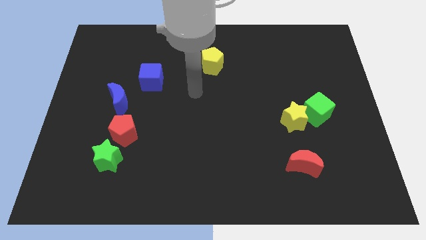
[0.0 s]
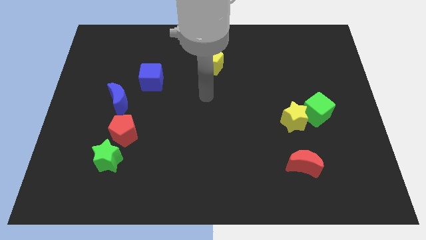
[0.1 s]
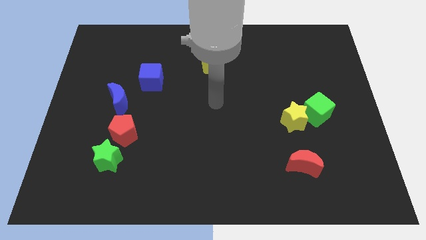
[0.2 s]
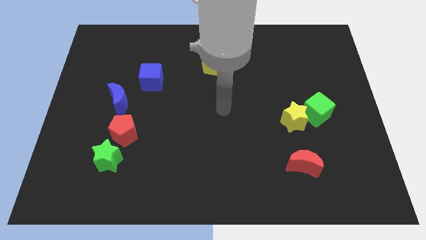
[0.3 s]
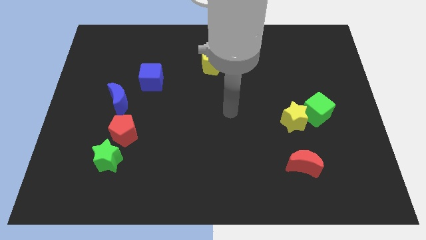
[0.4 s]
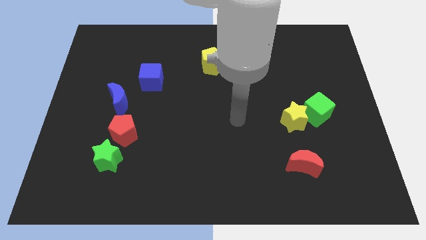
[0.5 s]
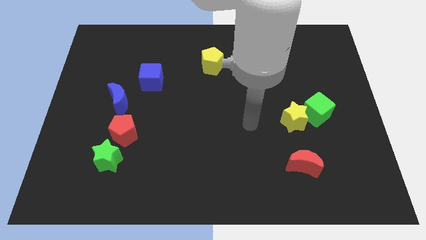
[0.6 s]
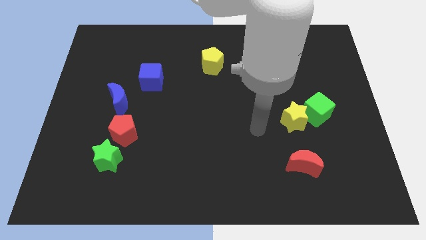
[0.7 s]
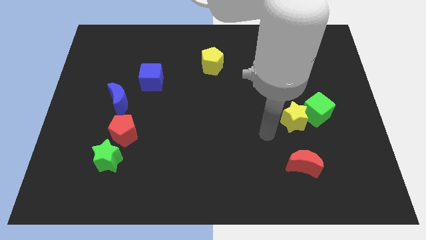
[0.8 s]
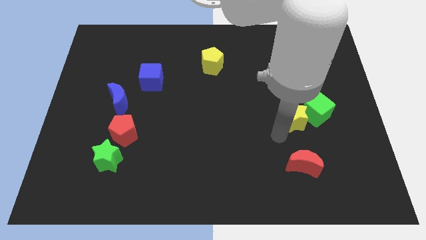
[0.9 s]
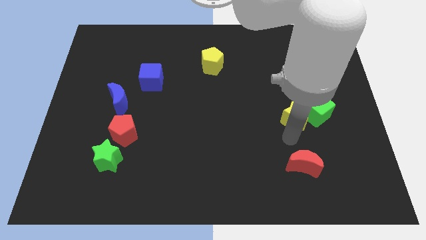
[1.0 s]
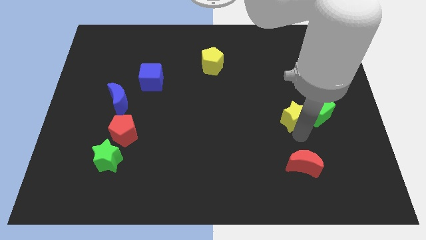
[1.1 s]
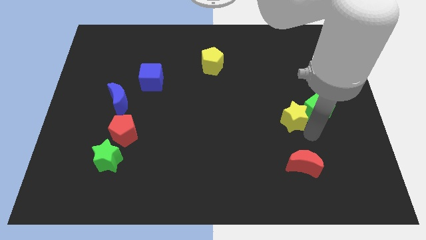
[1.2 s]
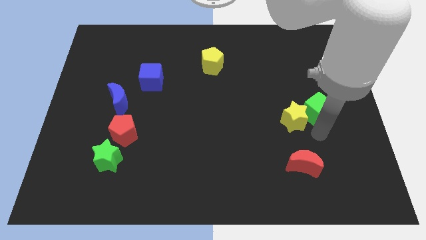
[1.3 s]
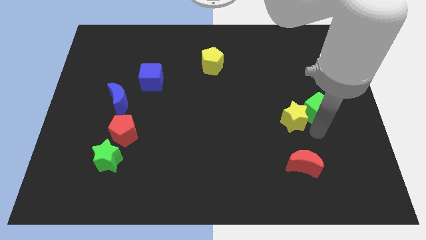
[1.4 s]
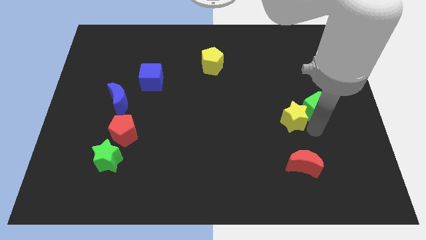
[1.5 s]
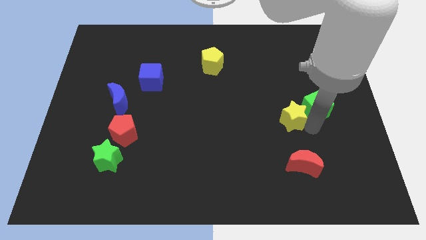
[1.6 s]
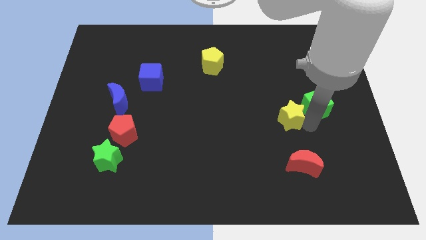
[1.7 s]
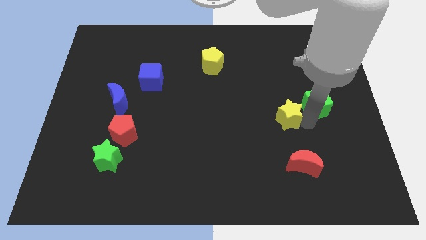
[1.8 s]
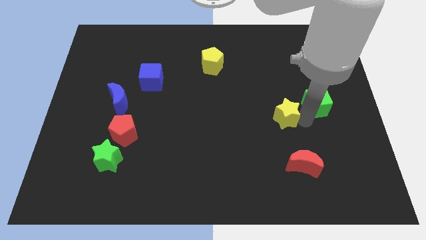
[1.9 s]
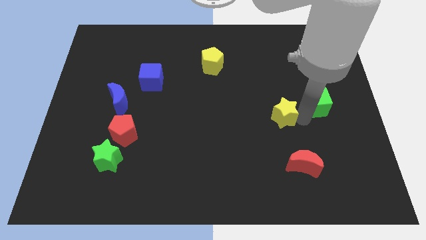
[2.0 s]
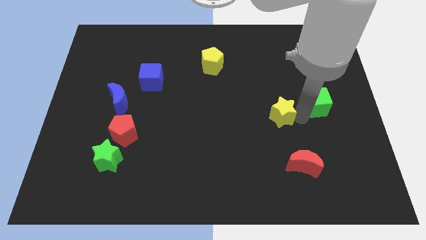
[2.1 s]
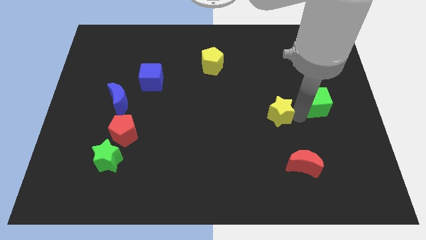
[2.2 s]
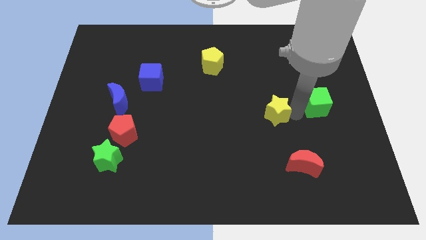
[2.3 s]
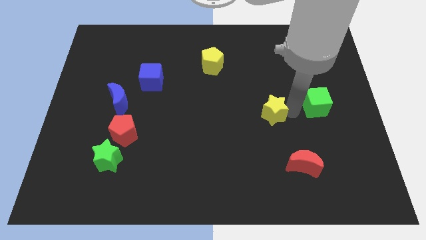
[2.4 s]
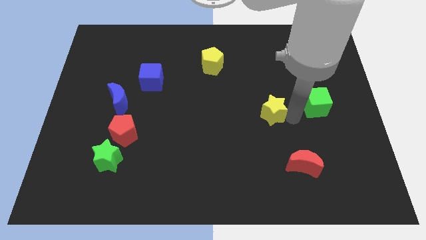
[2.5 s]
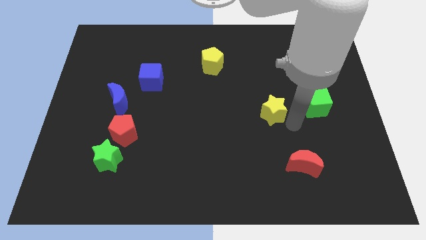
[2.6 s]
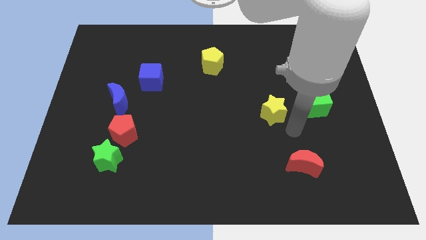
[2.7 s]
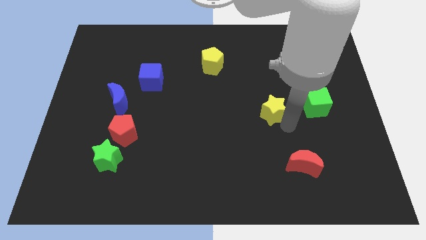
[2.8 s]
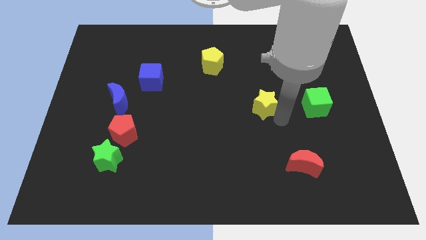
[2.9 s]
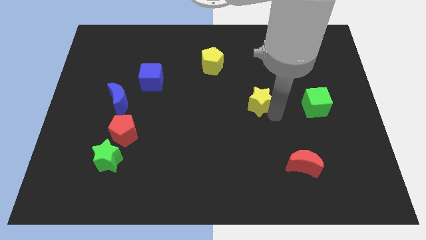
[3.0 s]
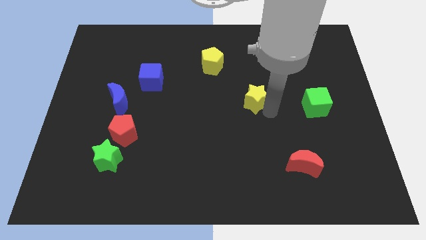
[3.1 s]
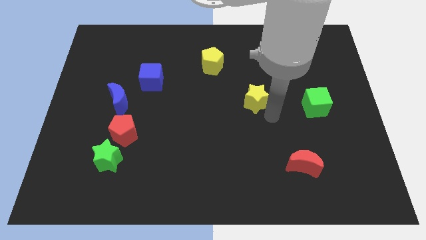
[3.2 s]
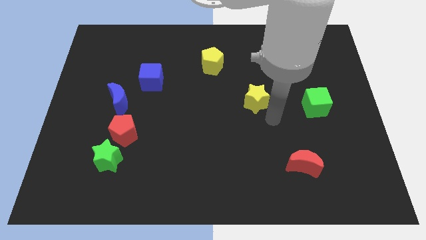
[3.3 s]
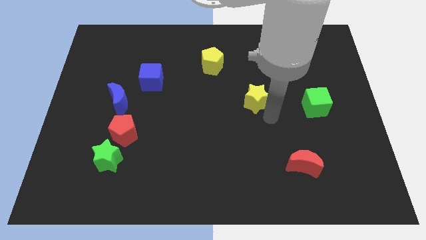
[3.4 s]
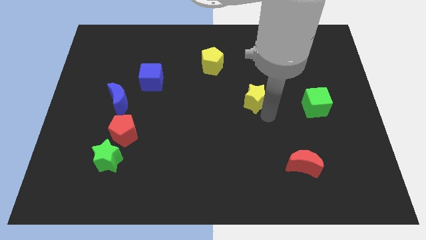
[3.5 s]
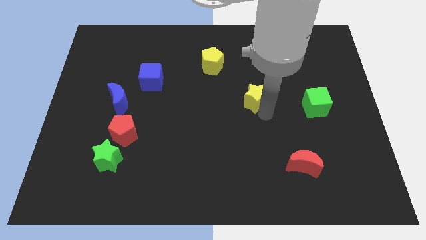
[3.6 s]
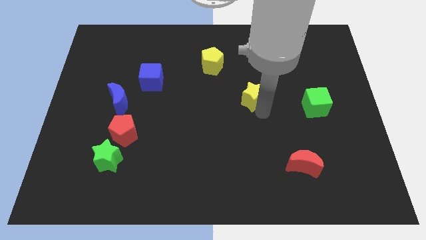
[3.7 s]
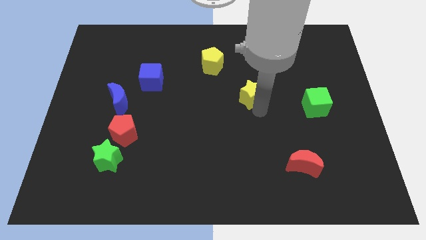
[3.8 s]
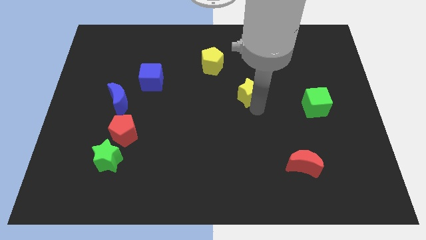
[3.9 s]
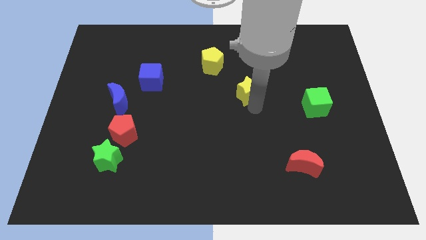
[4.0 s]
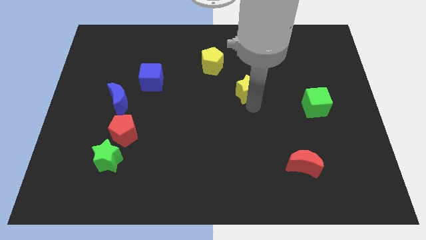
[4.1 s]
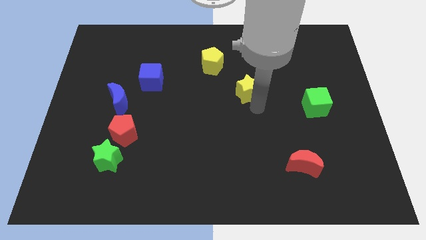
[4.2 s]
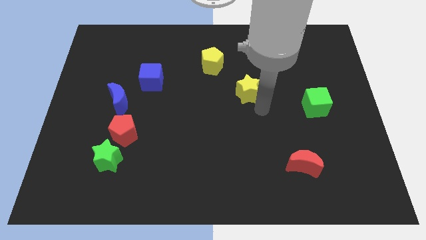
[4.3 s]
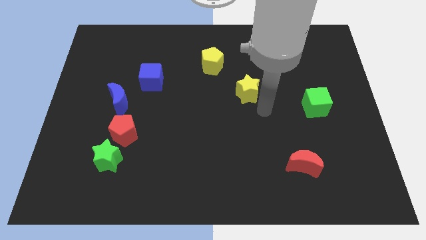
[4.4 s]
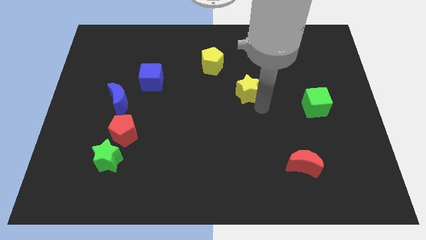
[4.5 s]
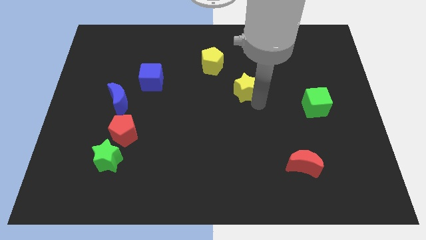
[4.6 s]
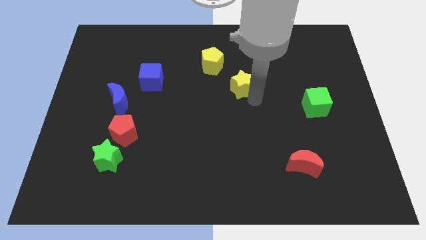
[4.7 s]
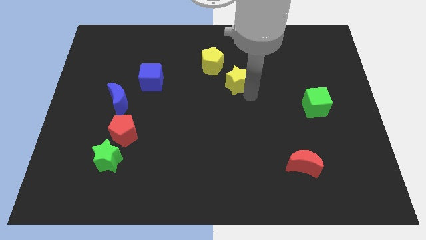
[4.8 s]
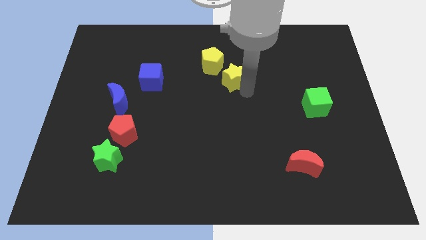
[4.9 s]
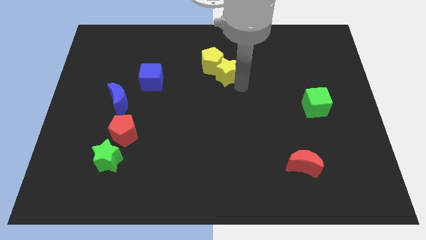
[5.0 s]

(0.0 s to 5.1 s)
push the yellow star to the yellow pentagon

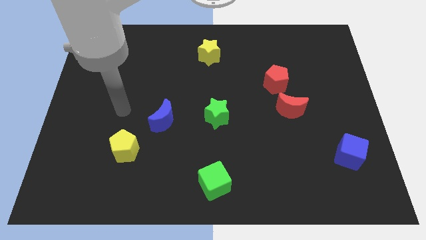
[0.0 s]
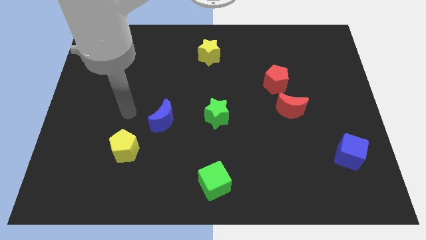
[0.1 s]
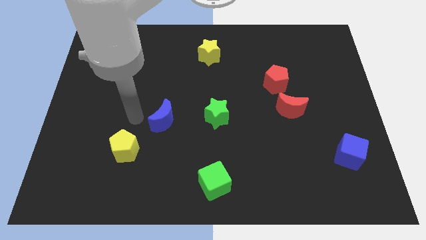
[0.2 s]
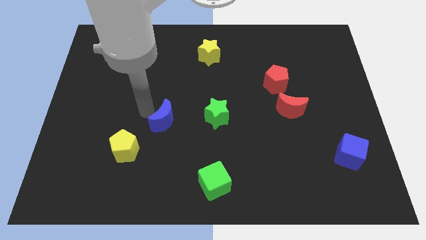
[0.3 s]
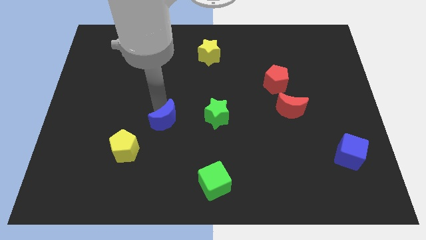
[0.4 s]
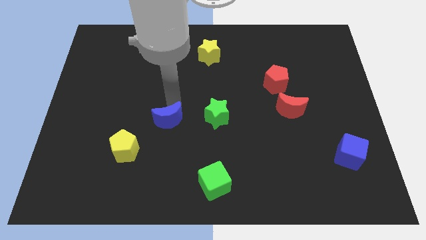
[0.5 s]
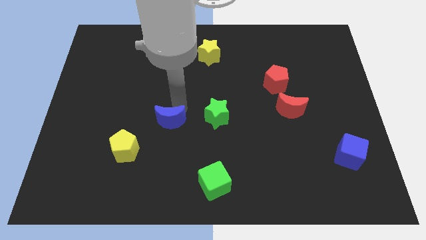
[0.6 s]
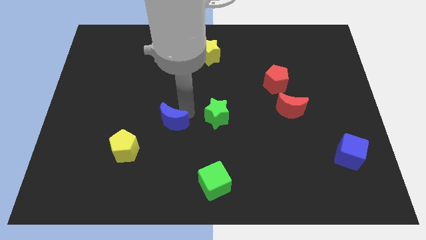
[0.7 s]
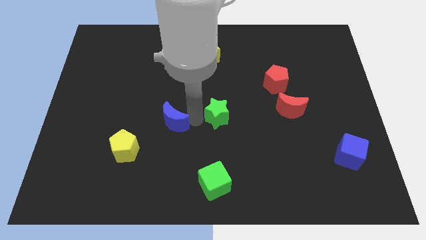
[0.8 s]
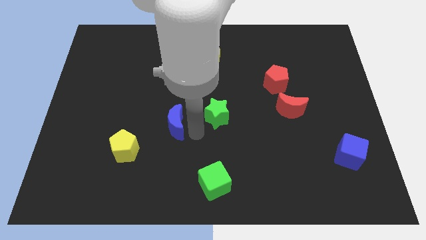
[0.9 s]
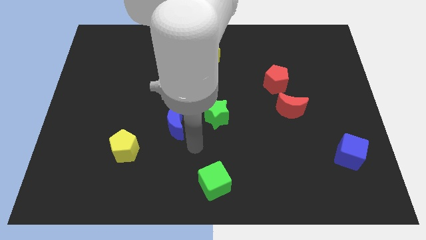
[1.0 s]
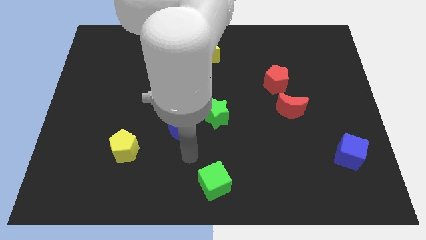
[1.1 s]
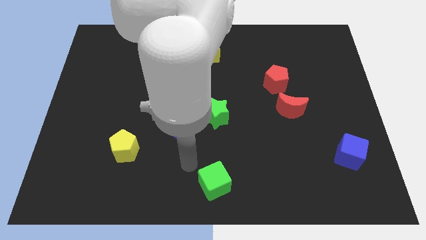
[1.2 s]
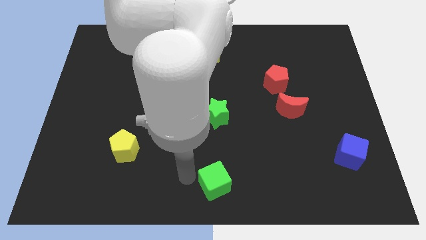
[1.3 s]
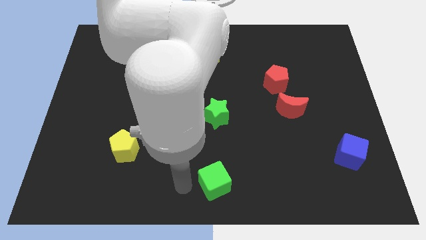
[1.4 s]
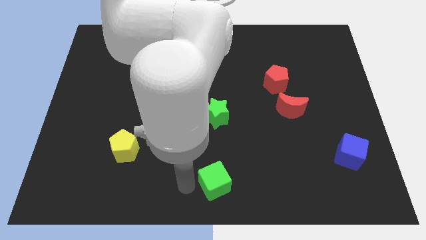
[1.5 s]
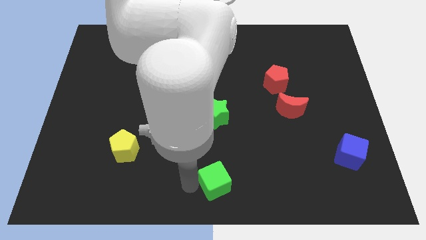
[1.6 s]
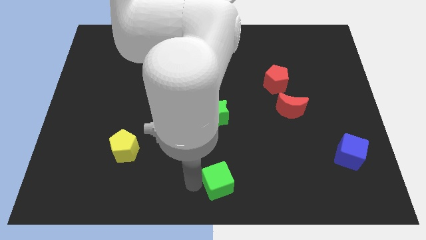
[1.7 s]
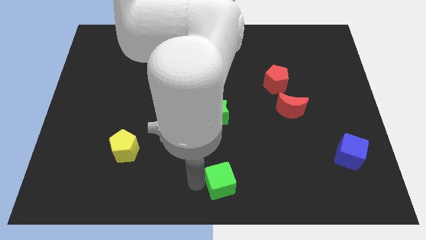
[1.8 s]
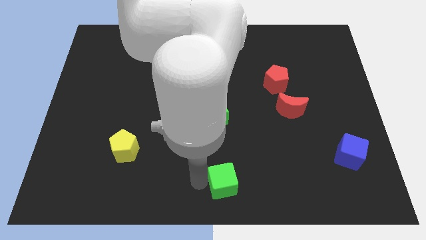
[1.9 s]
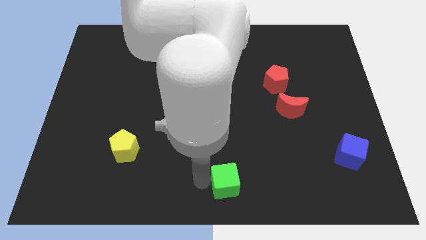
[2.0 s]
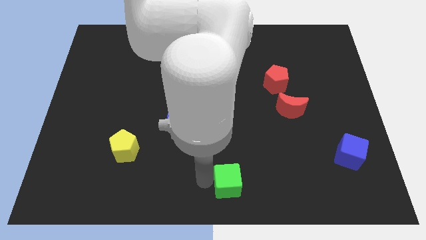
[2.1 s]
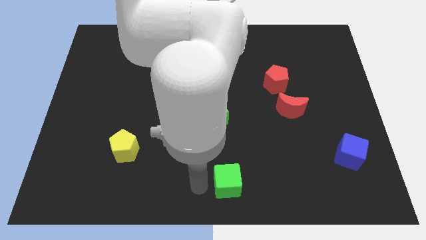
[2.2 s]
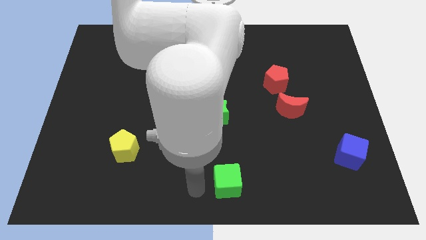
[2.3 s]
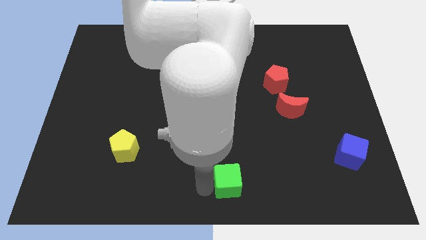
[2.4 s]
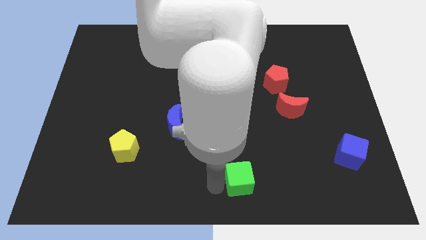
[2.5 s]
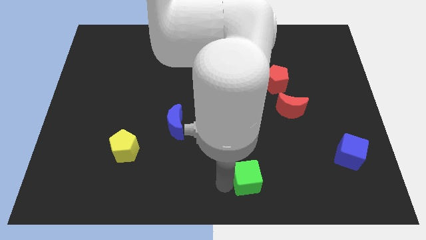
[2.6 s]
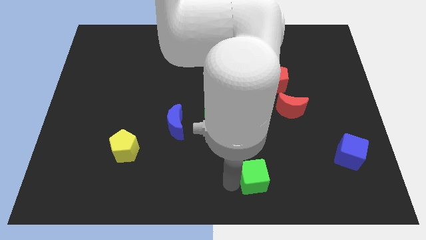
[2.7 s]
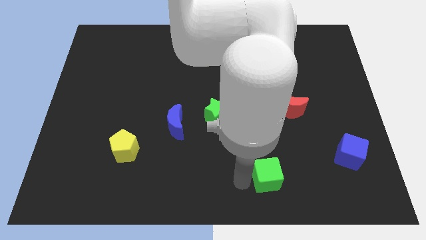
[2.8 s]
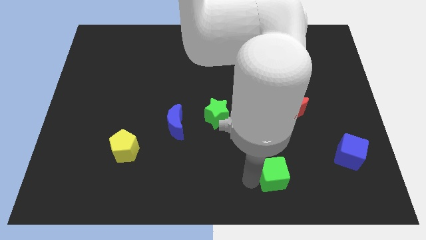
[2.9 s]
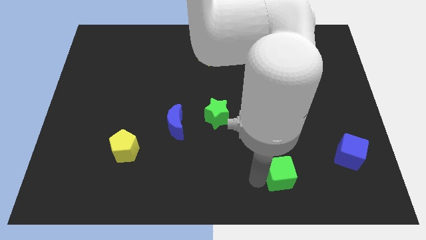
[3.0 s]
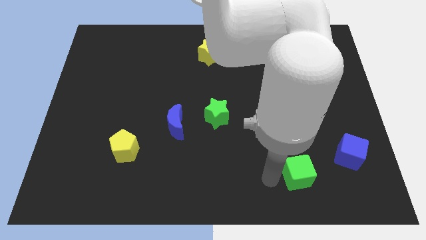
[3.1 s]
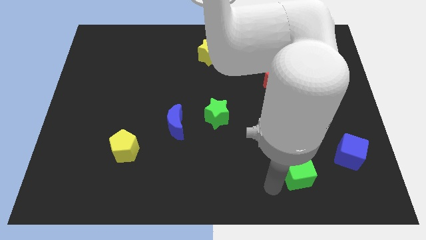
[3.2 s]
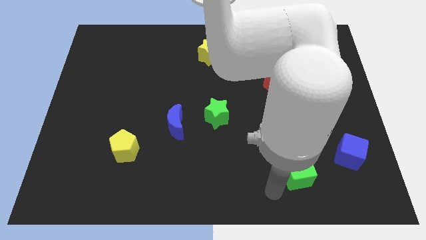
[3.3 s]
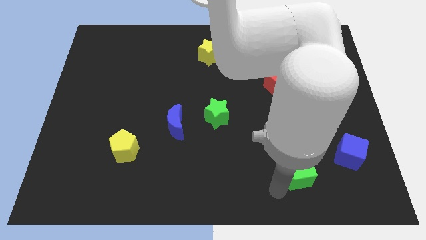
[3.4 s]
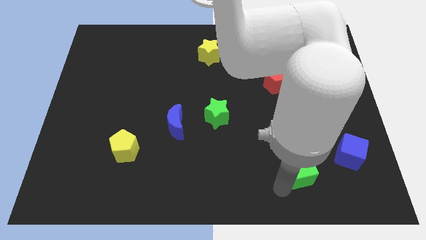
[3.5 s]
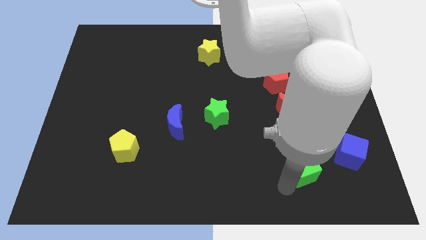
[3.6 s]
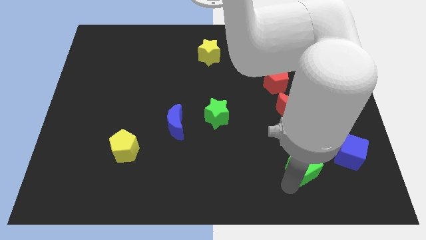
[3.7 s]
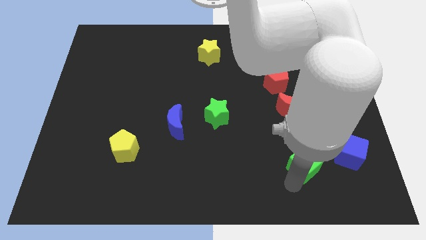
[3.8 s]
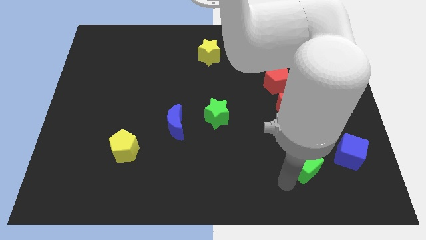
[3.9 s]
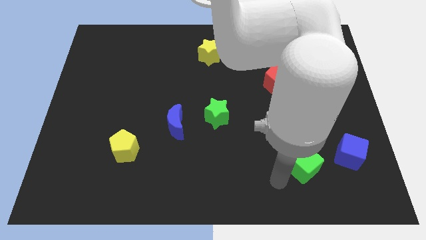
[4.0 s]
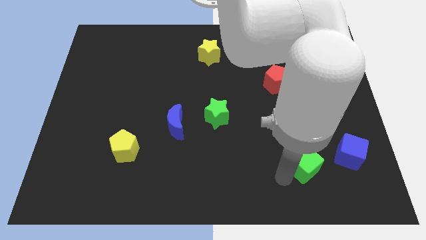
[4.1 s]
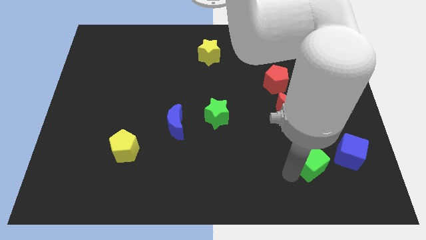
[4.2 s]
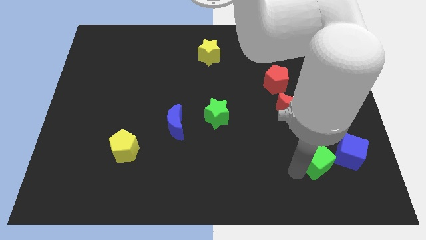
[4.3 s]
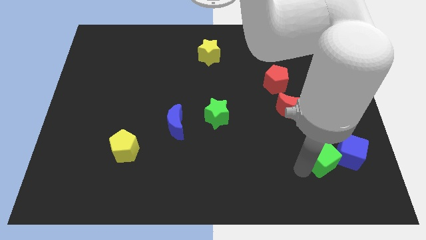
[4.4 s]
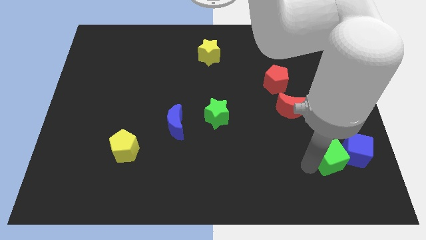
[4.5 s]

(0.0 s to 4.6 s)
put the green cube to the blue cube
